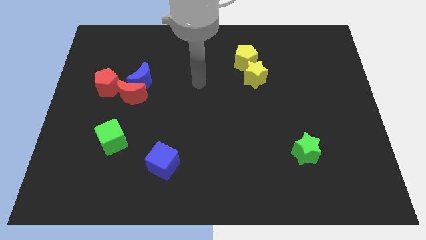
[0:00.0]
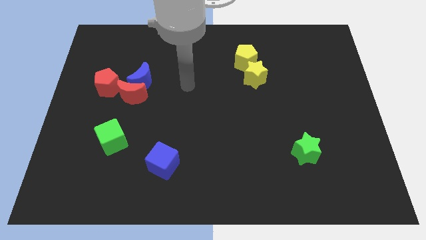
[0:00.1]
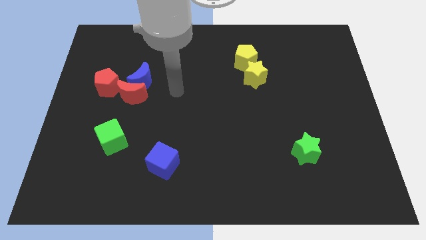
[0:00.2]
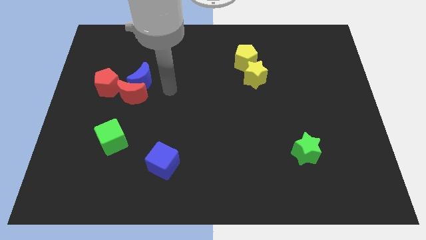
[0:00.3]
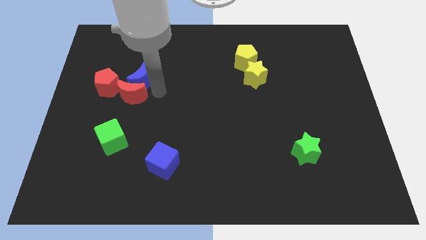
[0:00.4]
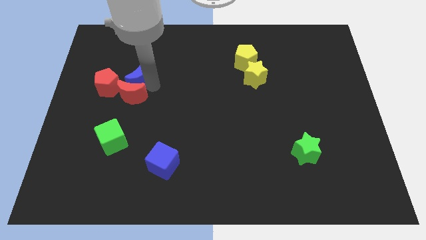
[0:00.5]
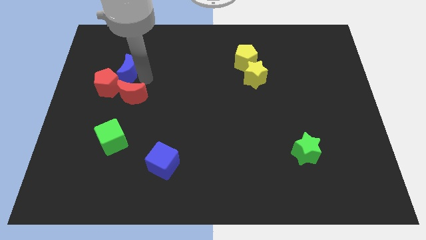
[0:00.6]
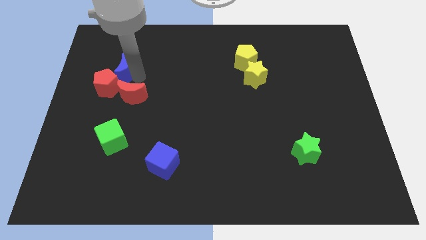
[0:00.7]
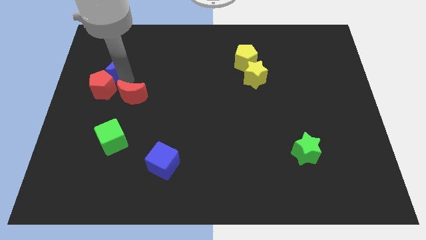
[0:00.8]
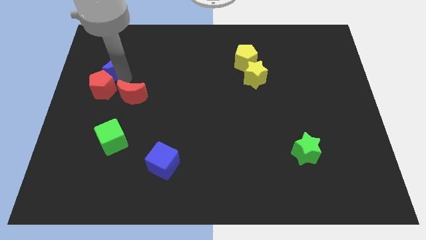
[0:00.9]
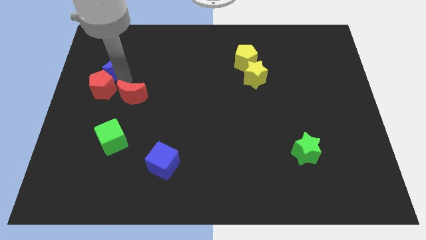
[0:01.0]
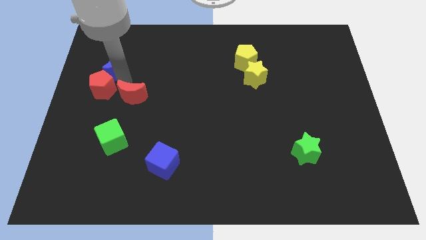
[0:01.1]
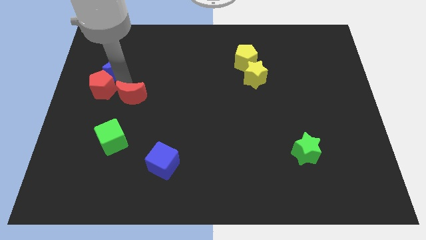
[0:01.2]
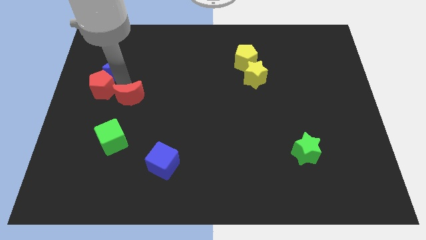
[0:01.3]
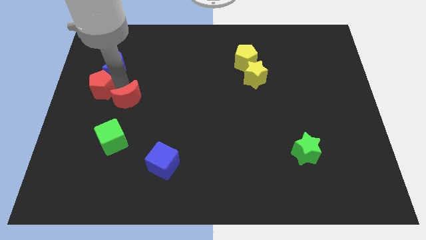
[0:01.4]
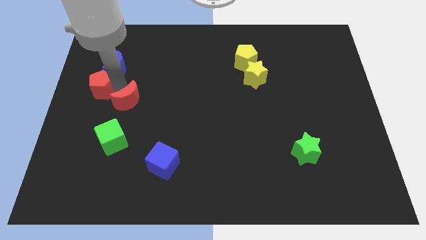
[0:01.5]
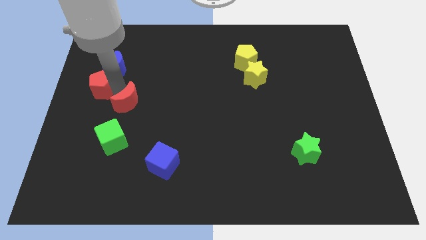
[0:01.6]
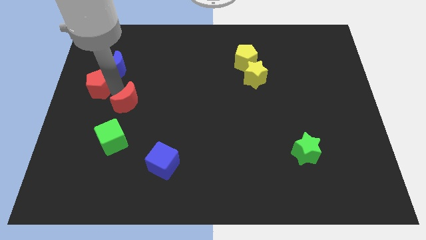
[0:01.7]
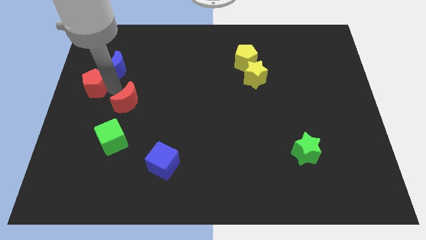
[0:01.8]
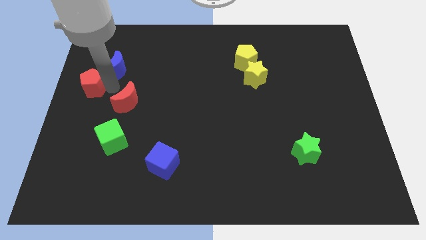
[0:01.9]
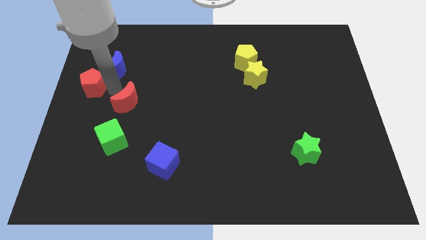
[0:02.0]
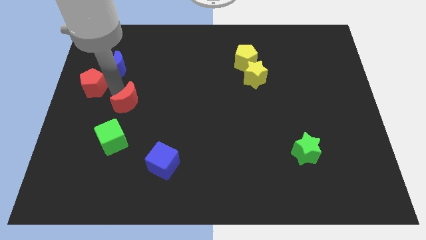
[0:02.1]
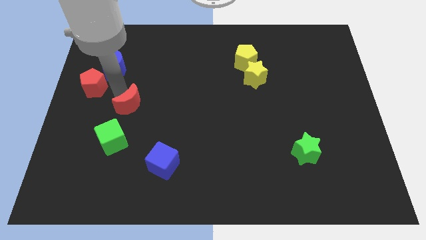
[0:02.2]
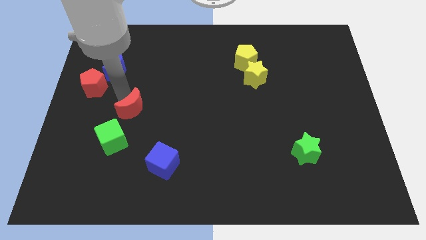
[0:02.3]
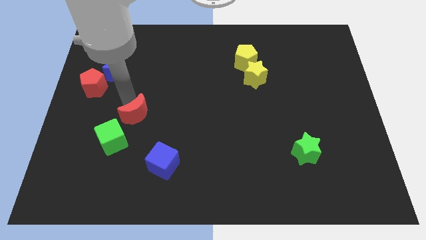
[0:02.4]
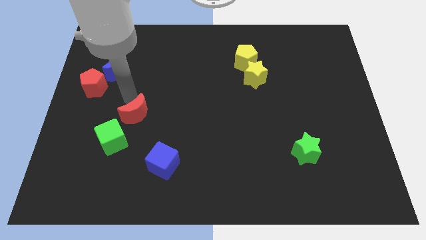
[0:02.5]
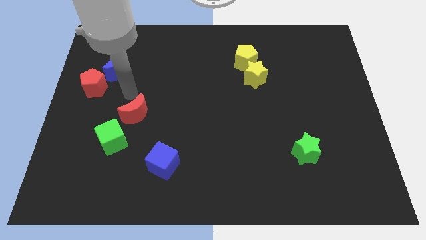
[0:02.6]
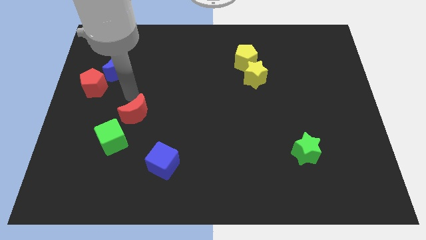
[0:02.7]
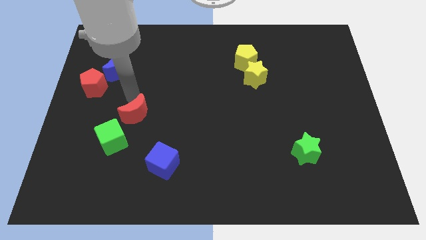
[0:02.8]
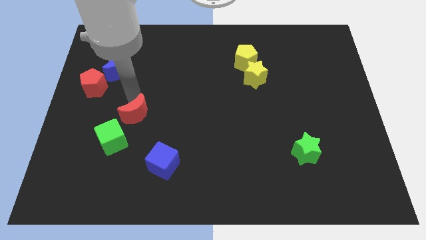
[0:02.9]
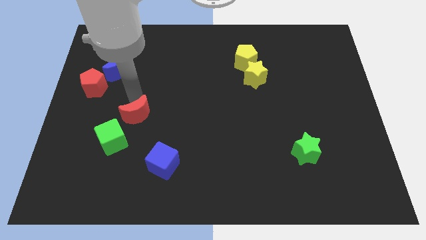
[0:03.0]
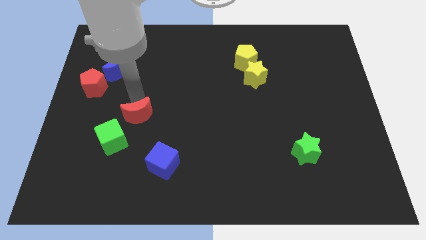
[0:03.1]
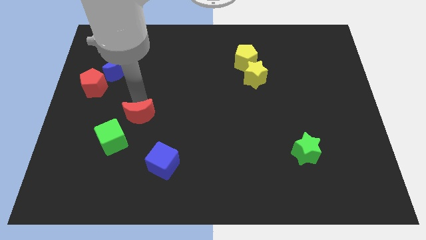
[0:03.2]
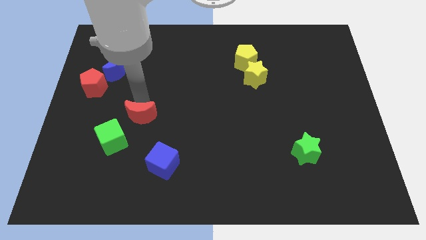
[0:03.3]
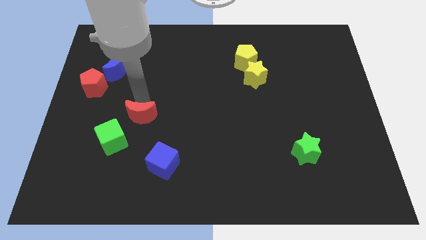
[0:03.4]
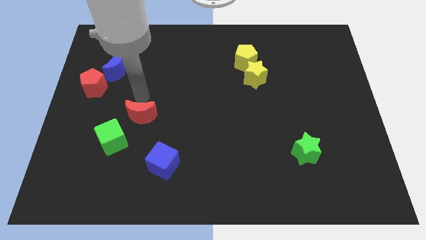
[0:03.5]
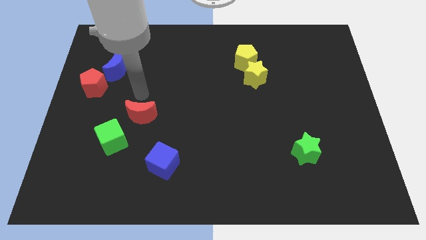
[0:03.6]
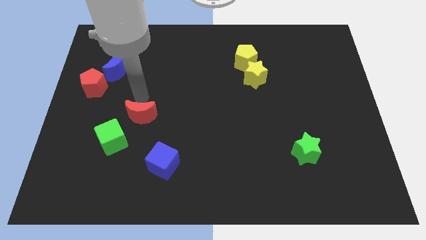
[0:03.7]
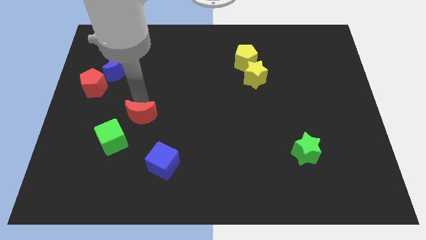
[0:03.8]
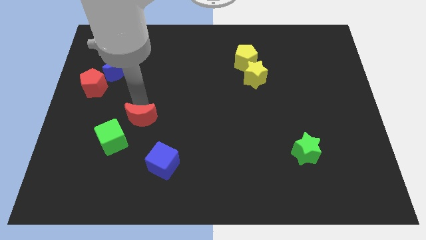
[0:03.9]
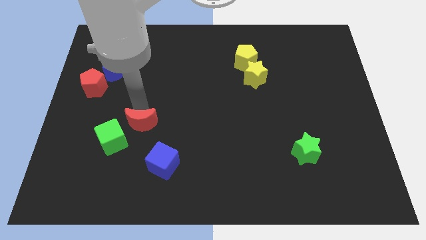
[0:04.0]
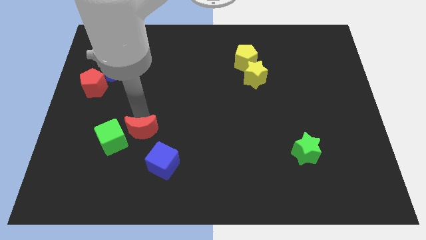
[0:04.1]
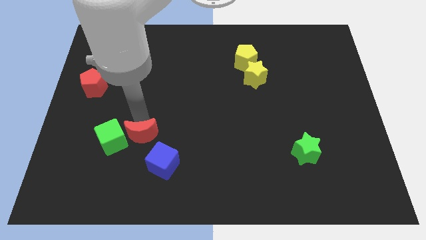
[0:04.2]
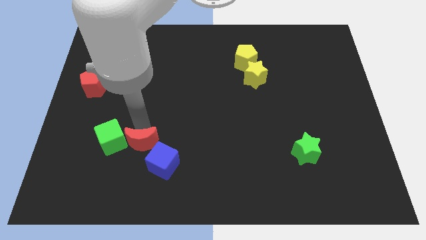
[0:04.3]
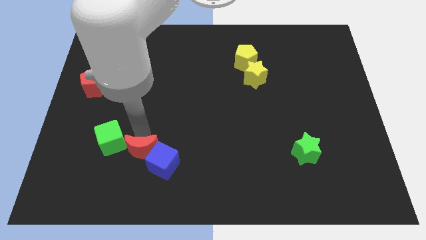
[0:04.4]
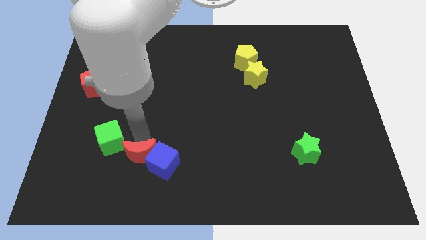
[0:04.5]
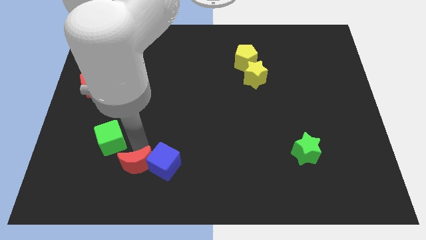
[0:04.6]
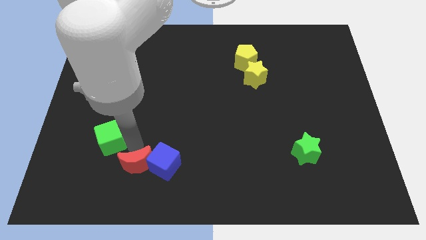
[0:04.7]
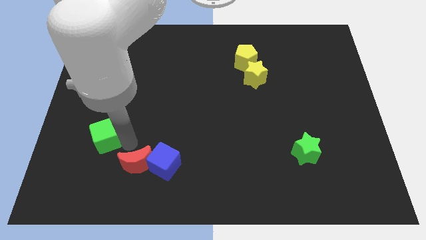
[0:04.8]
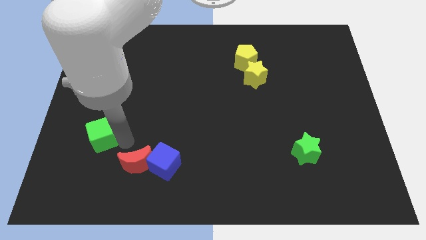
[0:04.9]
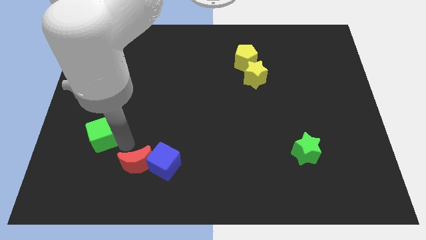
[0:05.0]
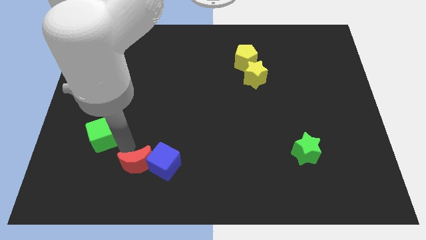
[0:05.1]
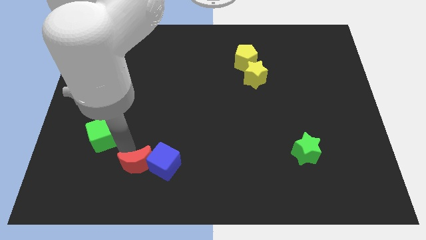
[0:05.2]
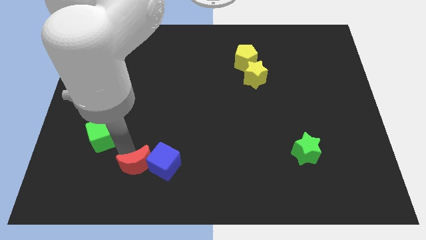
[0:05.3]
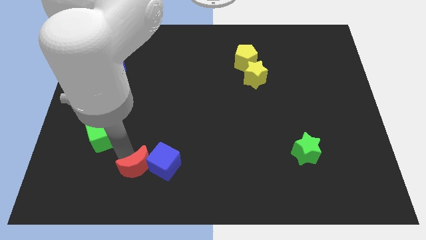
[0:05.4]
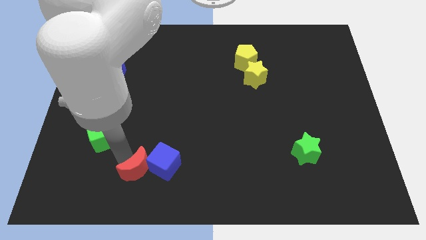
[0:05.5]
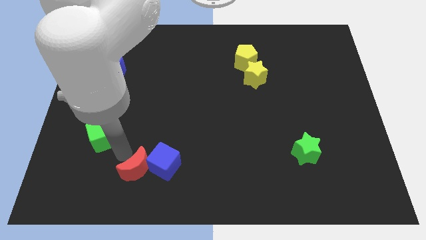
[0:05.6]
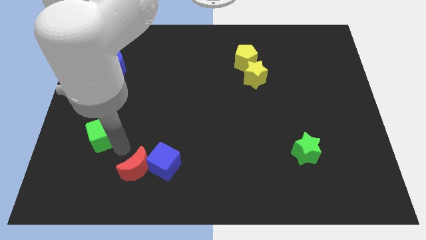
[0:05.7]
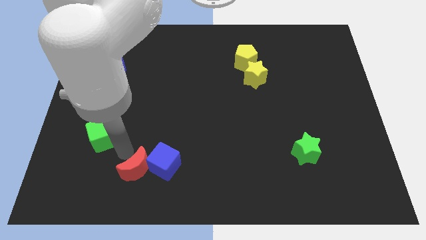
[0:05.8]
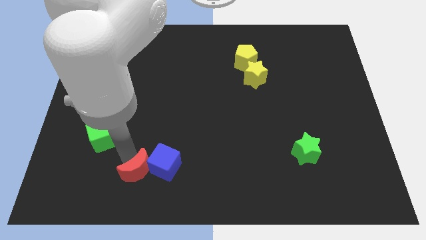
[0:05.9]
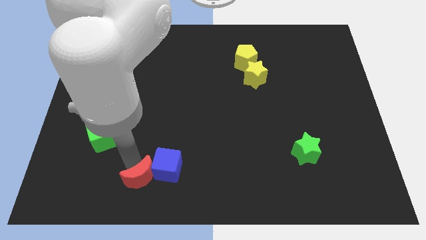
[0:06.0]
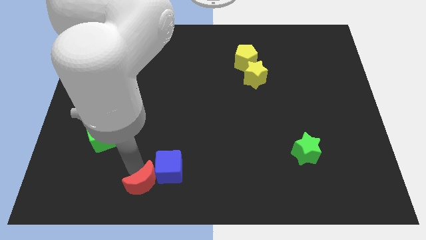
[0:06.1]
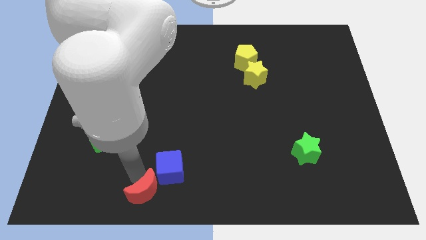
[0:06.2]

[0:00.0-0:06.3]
slide the red moon to the bottom
